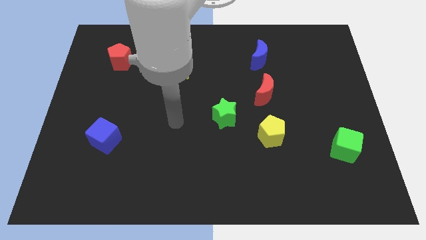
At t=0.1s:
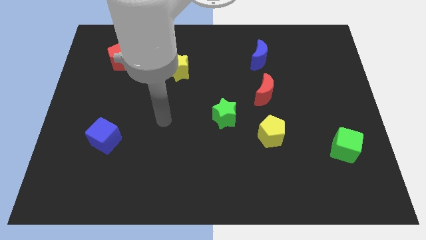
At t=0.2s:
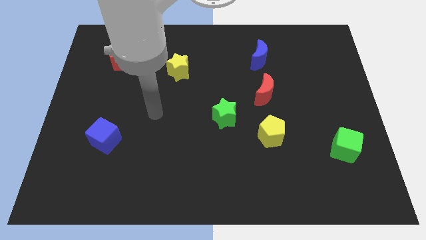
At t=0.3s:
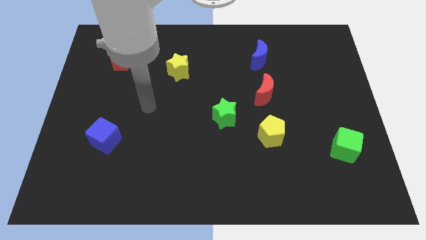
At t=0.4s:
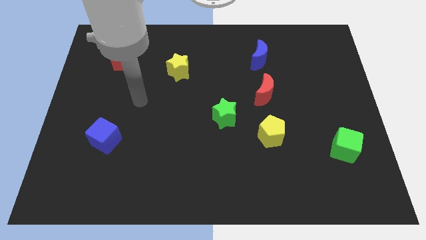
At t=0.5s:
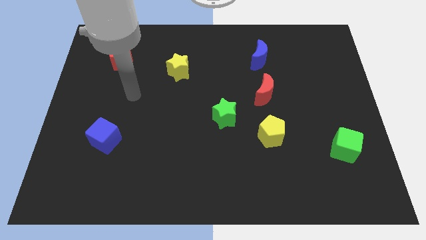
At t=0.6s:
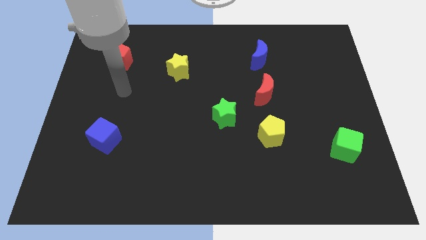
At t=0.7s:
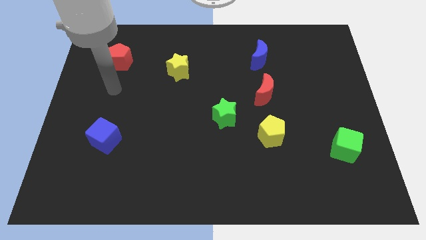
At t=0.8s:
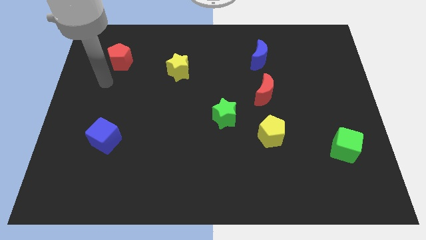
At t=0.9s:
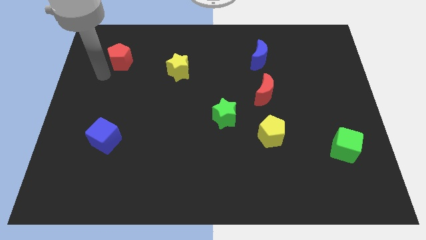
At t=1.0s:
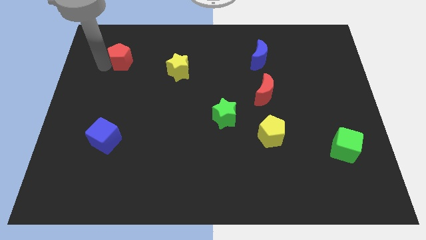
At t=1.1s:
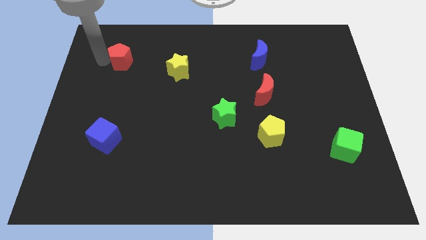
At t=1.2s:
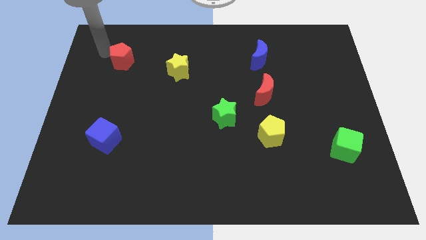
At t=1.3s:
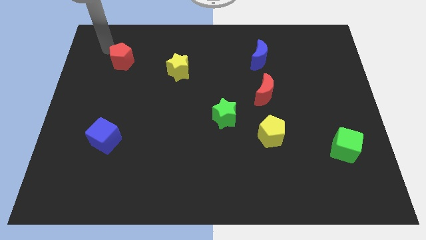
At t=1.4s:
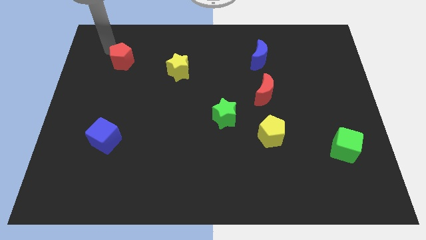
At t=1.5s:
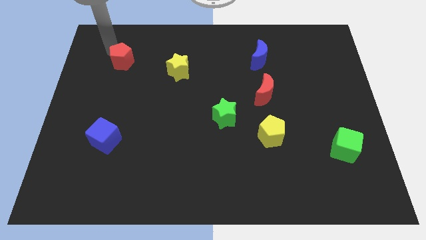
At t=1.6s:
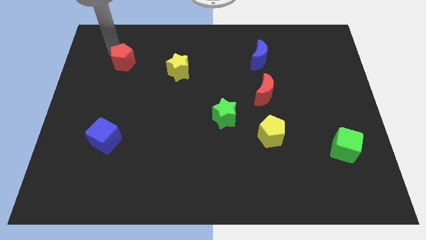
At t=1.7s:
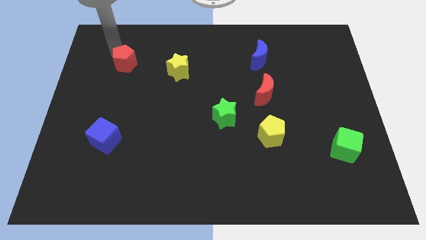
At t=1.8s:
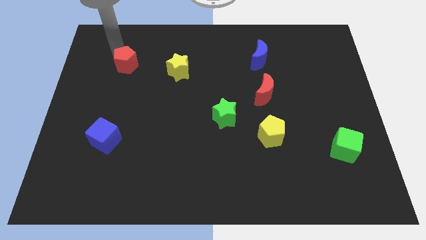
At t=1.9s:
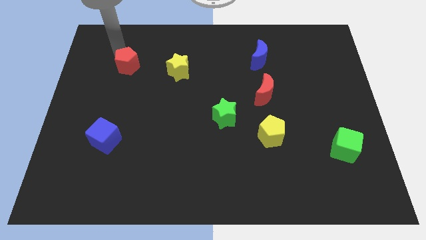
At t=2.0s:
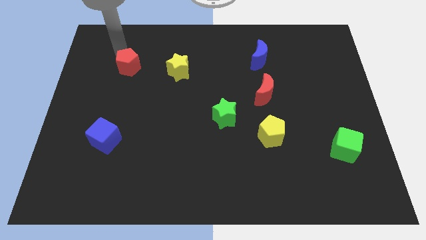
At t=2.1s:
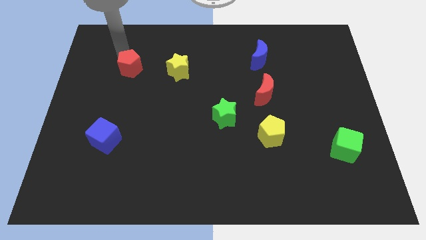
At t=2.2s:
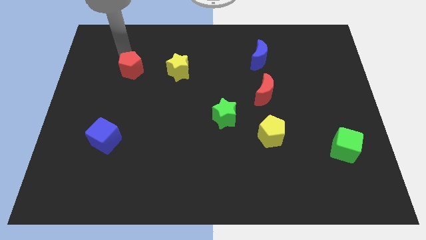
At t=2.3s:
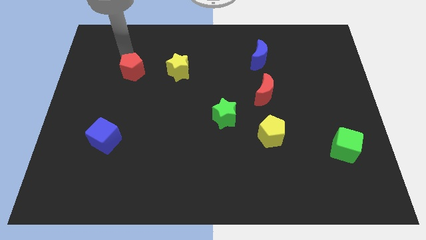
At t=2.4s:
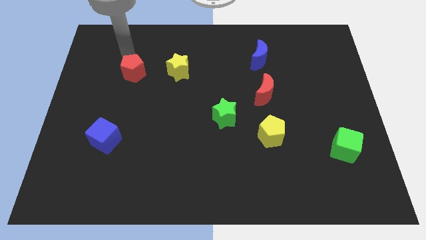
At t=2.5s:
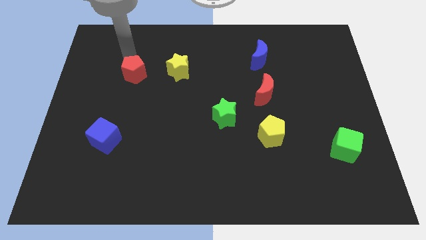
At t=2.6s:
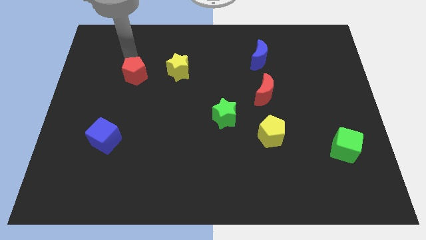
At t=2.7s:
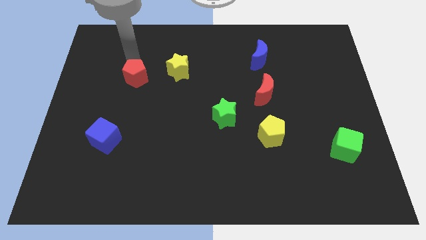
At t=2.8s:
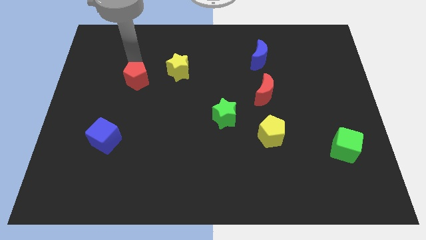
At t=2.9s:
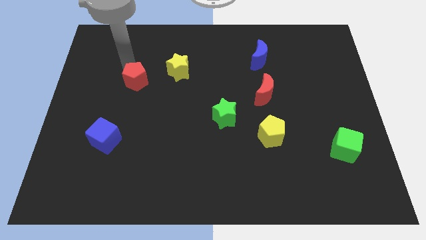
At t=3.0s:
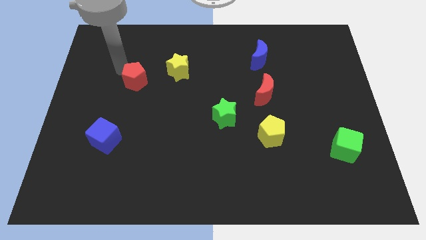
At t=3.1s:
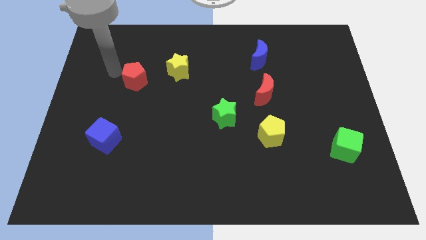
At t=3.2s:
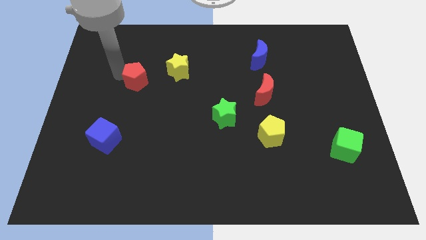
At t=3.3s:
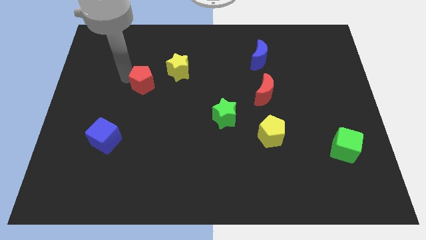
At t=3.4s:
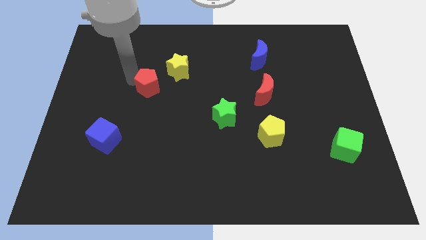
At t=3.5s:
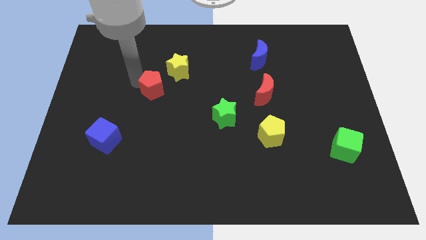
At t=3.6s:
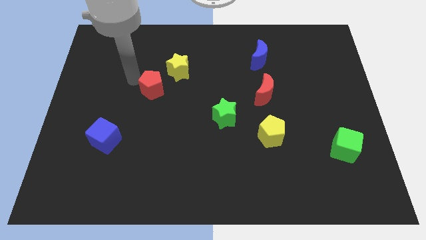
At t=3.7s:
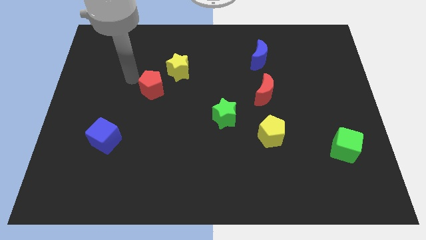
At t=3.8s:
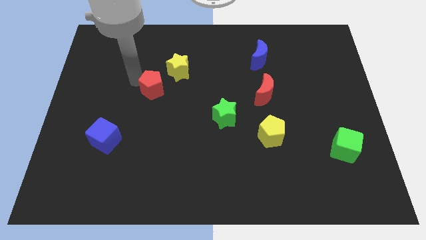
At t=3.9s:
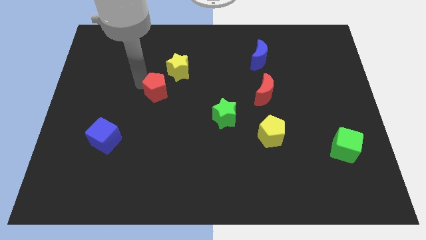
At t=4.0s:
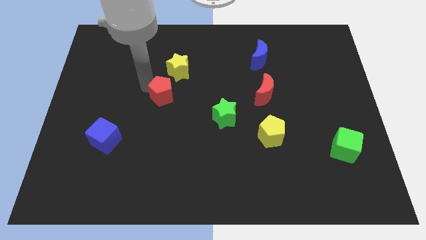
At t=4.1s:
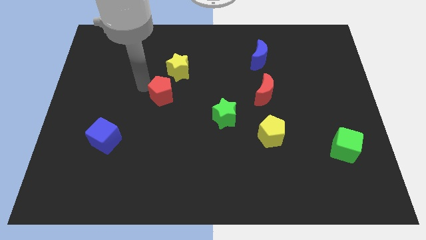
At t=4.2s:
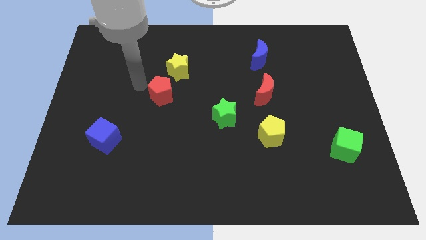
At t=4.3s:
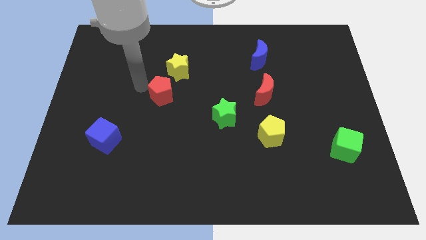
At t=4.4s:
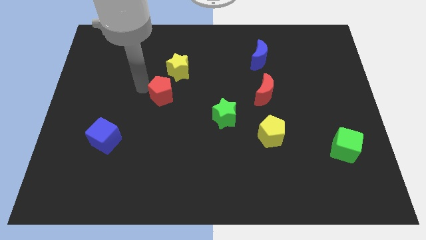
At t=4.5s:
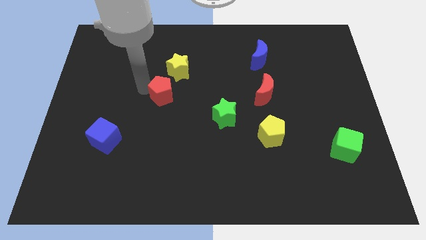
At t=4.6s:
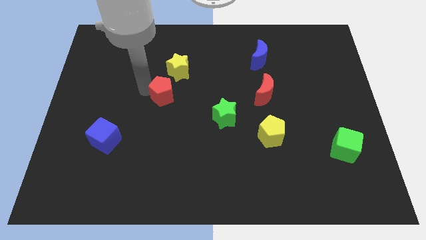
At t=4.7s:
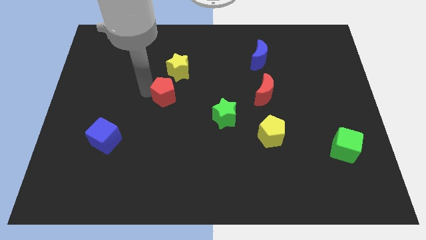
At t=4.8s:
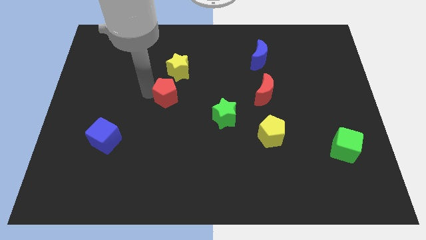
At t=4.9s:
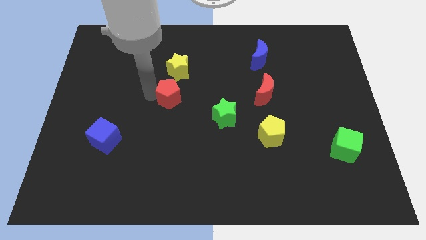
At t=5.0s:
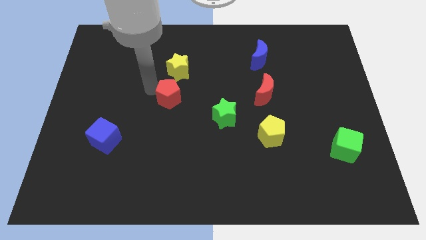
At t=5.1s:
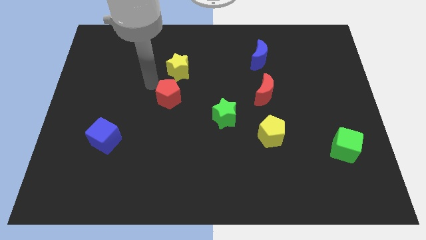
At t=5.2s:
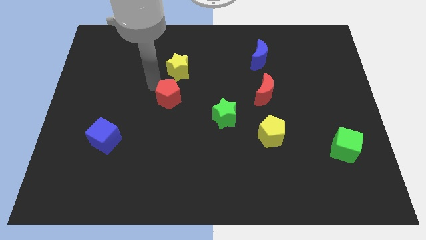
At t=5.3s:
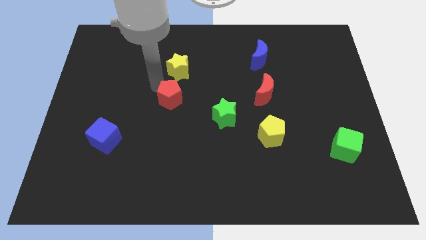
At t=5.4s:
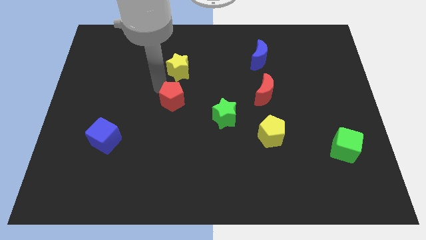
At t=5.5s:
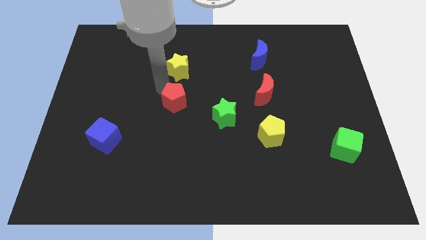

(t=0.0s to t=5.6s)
move the red pentagon down and to the right diagonally

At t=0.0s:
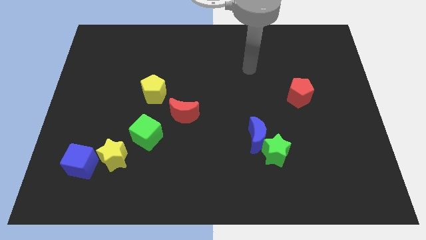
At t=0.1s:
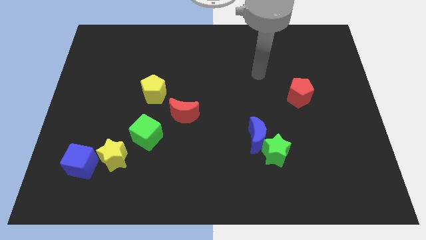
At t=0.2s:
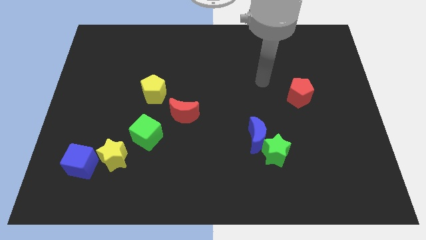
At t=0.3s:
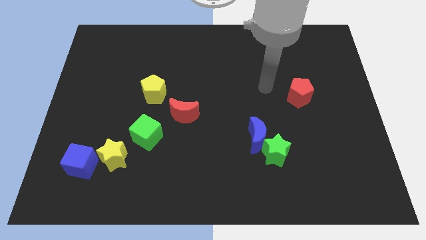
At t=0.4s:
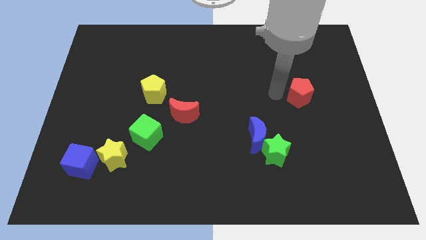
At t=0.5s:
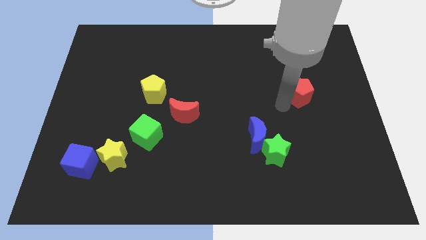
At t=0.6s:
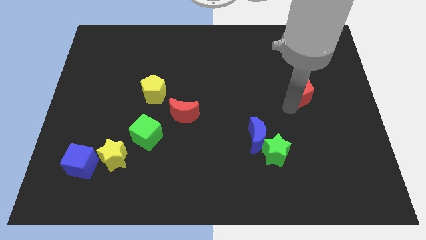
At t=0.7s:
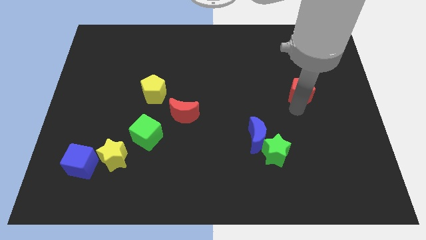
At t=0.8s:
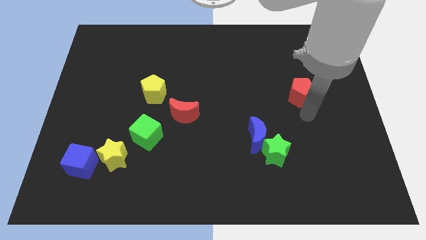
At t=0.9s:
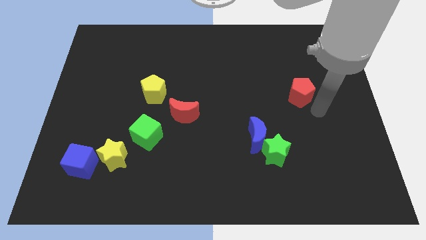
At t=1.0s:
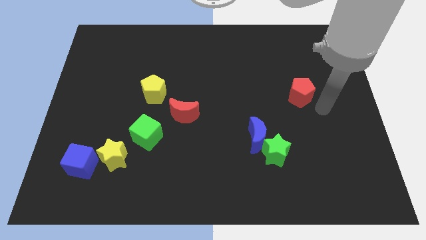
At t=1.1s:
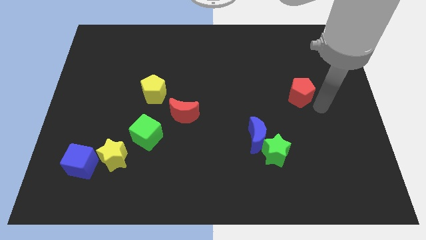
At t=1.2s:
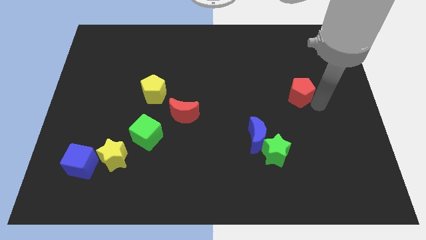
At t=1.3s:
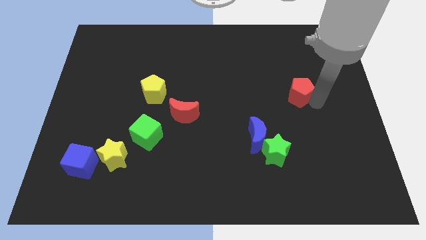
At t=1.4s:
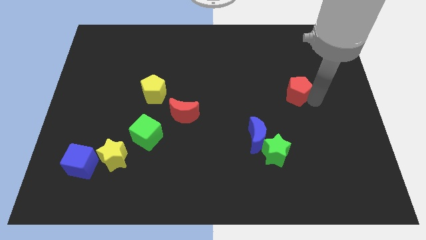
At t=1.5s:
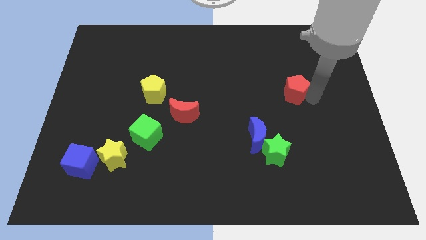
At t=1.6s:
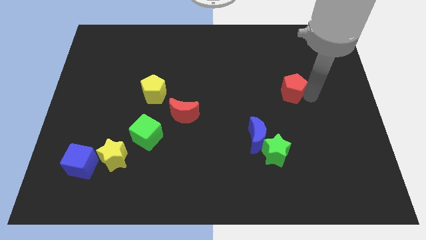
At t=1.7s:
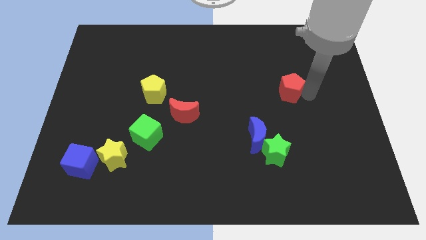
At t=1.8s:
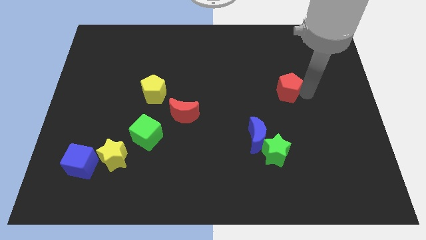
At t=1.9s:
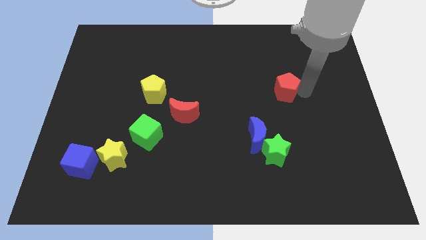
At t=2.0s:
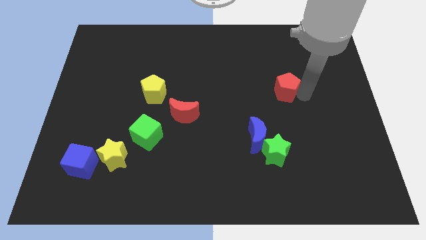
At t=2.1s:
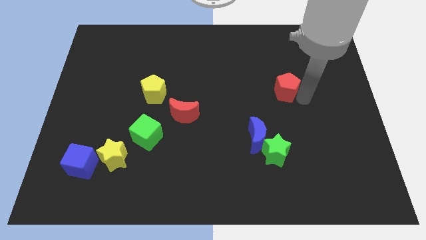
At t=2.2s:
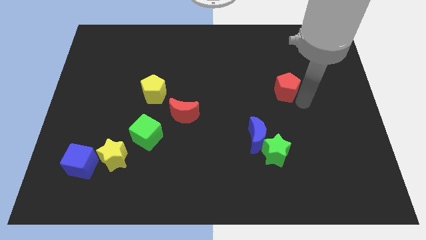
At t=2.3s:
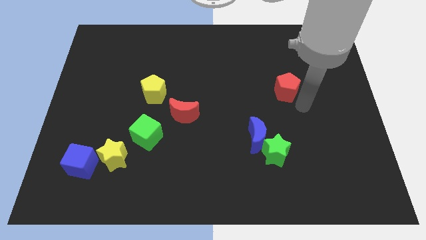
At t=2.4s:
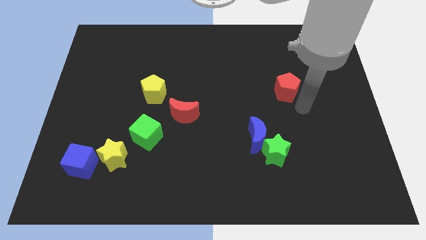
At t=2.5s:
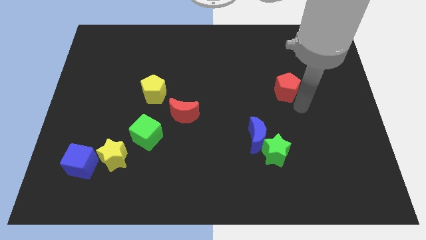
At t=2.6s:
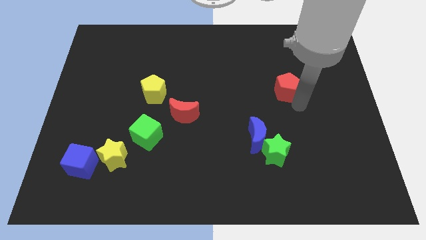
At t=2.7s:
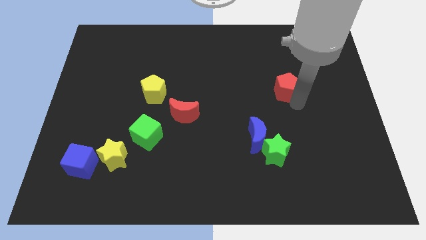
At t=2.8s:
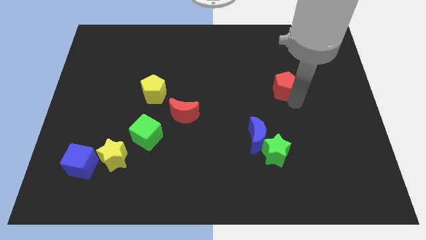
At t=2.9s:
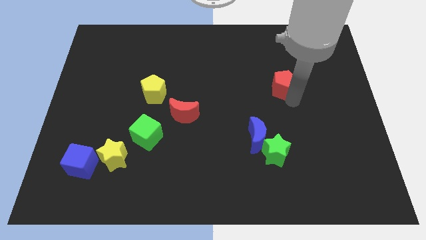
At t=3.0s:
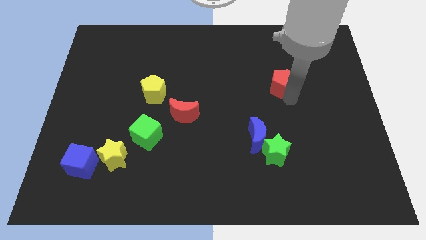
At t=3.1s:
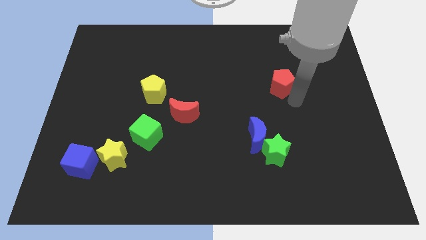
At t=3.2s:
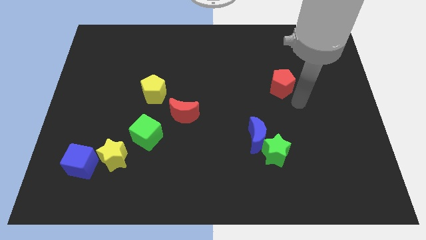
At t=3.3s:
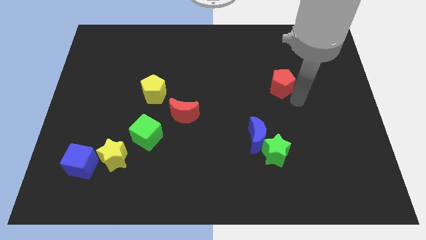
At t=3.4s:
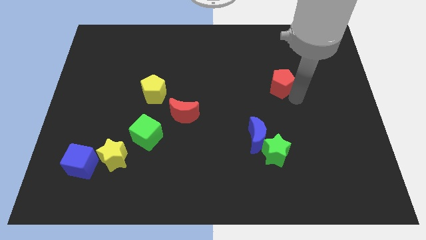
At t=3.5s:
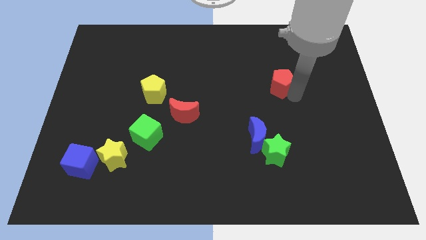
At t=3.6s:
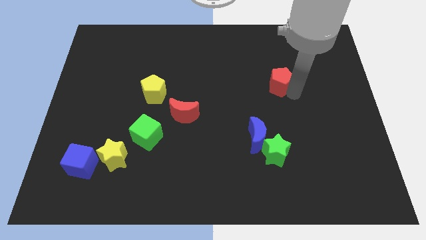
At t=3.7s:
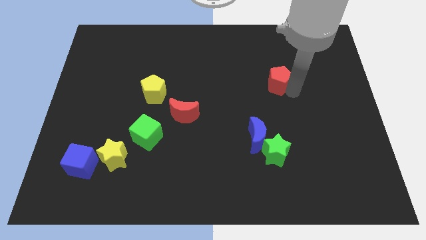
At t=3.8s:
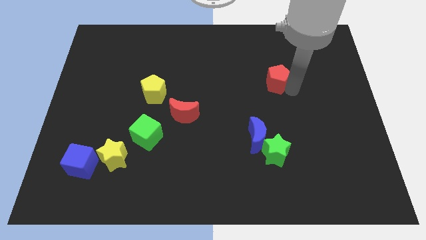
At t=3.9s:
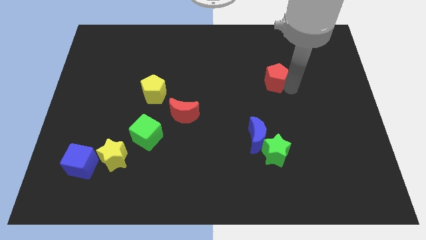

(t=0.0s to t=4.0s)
push the red pentagon a bit up and to the left diagonally
